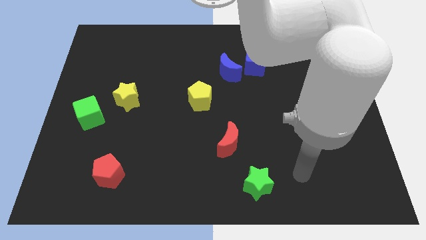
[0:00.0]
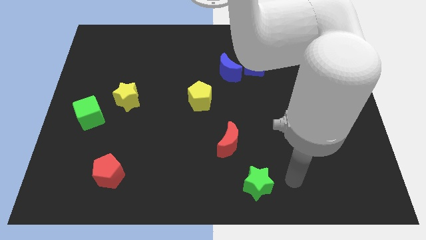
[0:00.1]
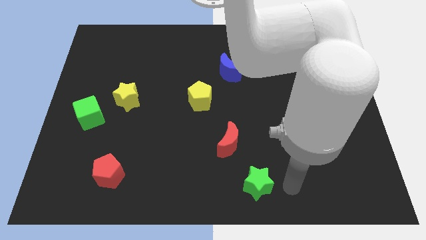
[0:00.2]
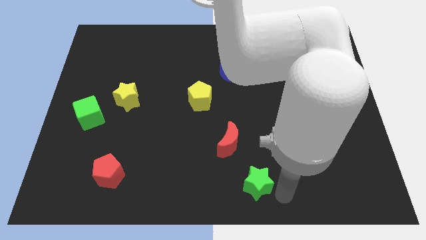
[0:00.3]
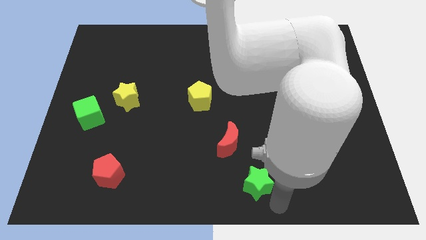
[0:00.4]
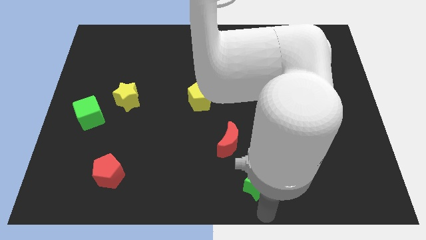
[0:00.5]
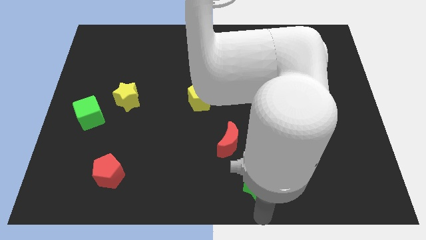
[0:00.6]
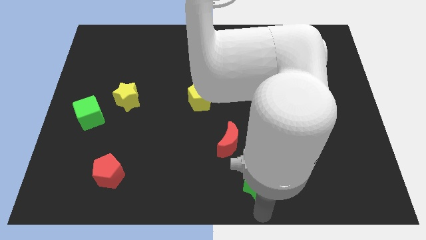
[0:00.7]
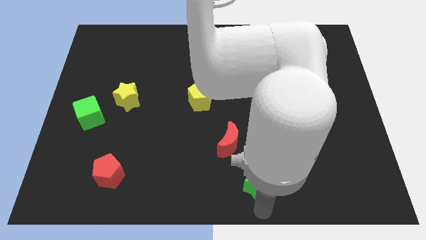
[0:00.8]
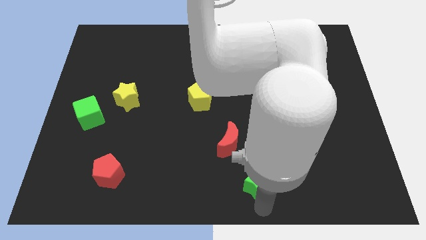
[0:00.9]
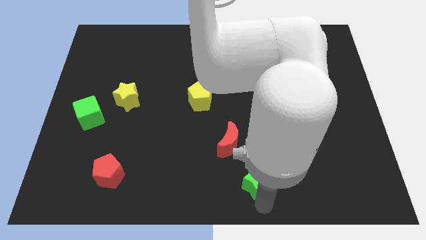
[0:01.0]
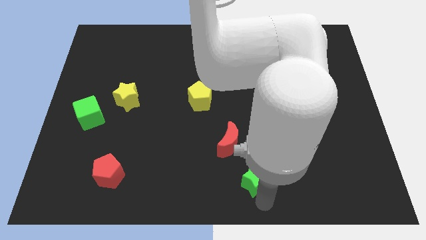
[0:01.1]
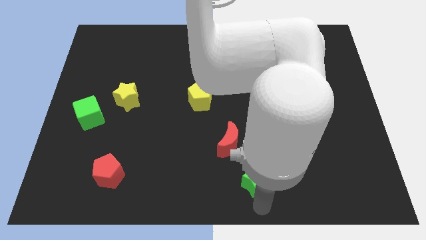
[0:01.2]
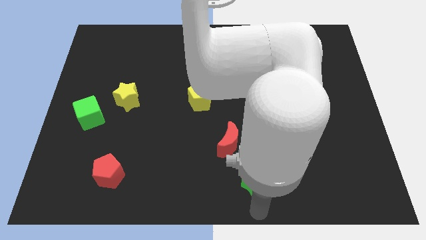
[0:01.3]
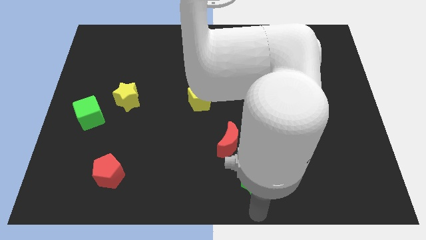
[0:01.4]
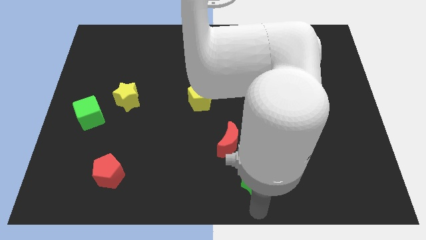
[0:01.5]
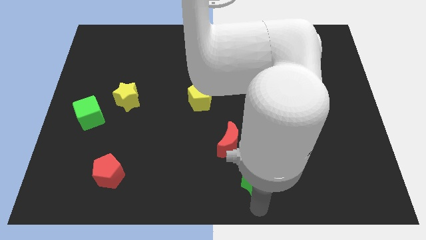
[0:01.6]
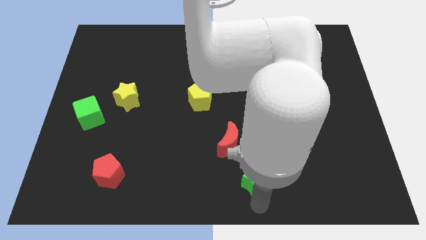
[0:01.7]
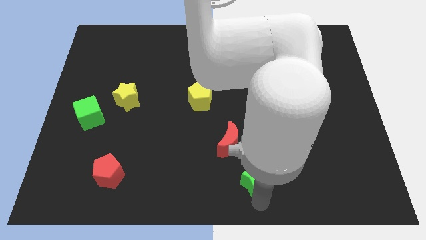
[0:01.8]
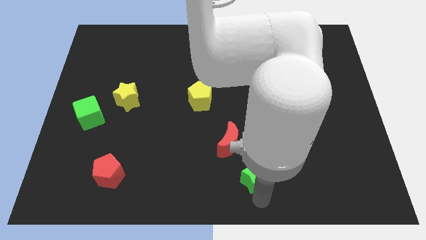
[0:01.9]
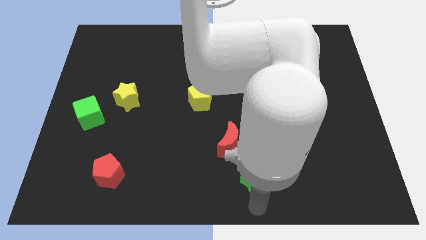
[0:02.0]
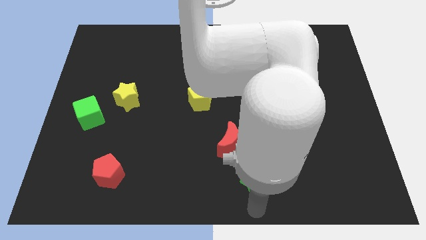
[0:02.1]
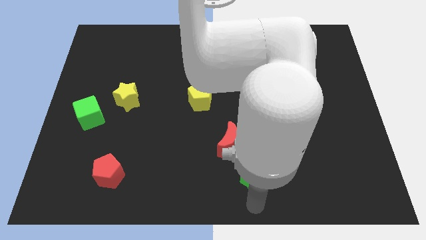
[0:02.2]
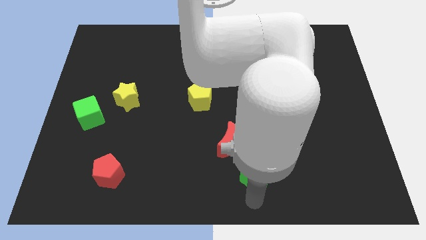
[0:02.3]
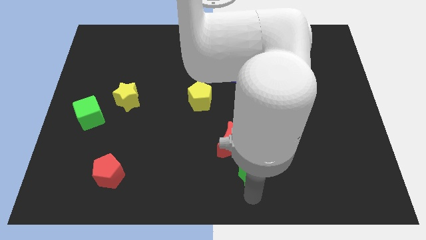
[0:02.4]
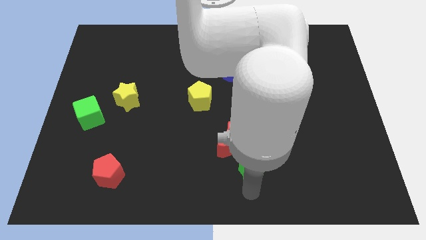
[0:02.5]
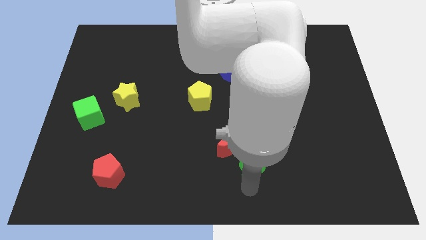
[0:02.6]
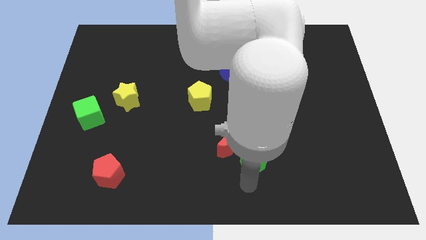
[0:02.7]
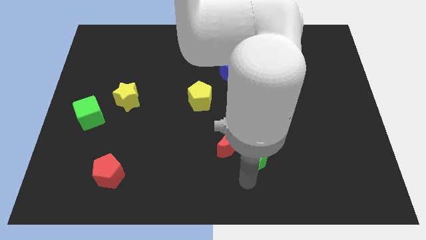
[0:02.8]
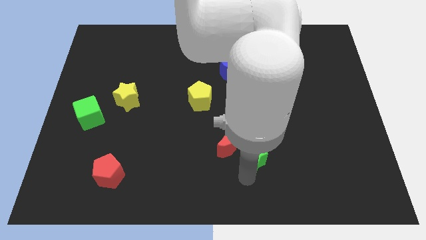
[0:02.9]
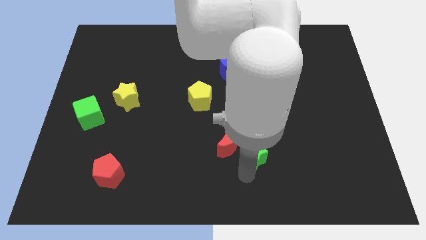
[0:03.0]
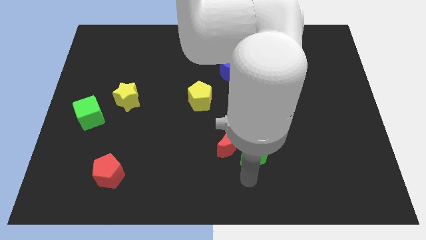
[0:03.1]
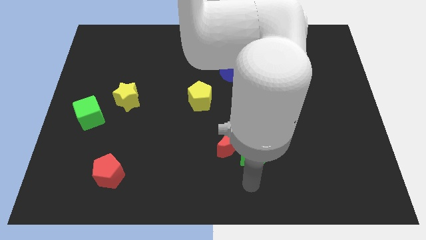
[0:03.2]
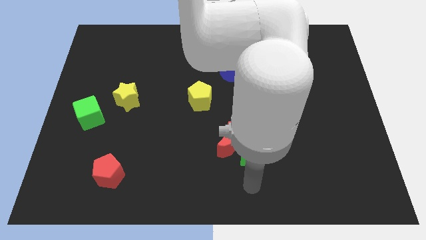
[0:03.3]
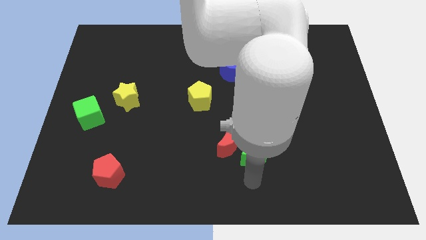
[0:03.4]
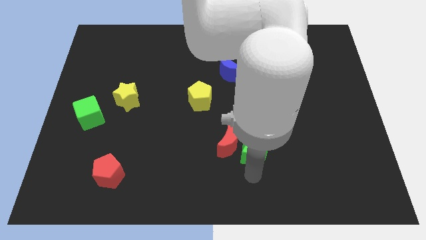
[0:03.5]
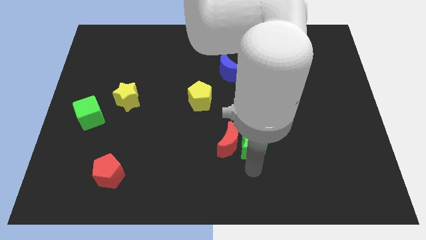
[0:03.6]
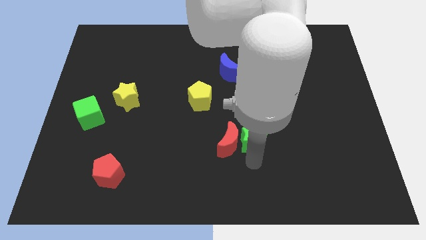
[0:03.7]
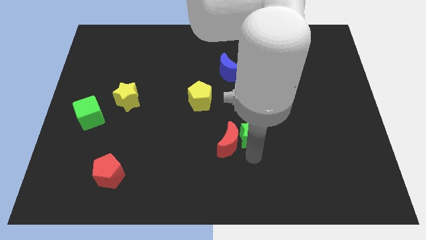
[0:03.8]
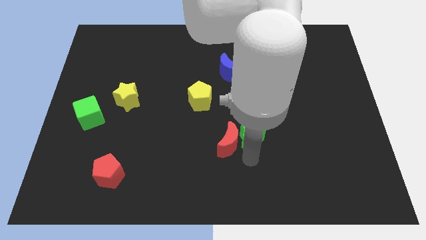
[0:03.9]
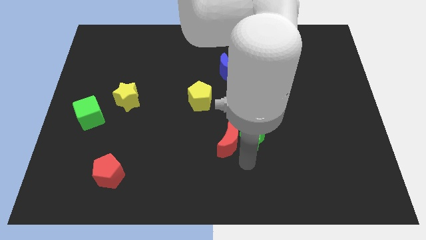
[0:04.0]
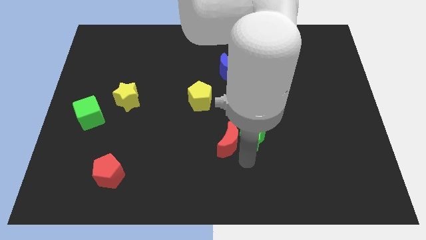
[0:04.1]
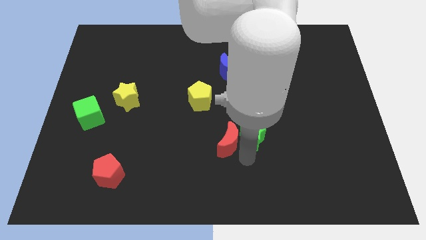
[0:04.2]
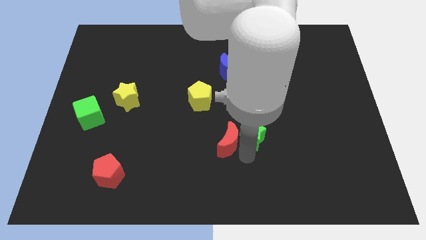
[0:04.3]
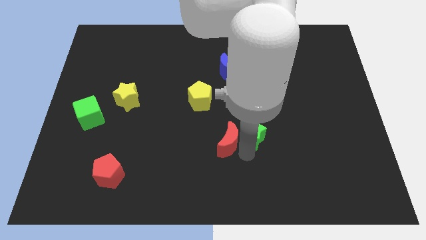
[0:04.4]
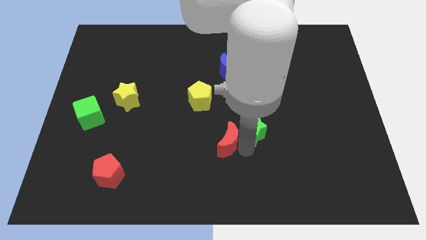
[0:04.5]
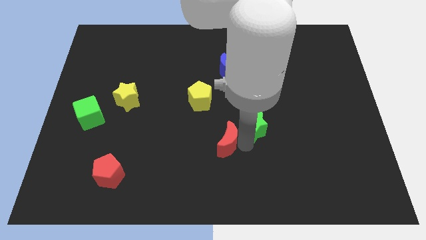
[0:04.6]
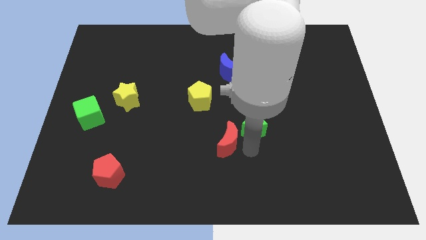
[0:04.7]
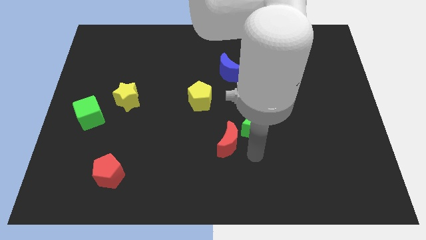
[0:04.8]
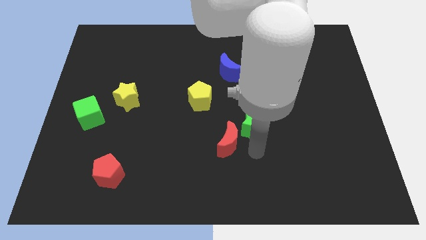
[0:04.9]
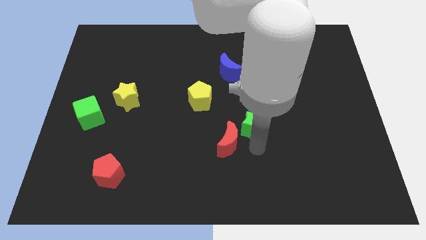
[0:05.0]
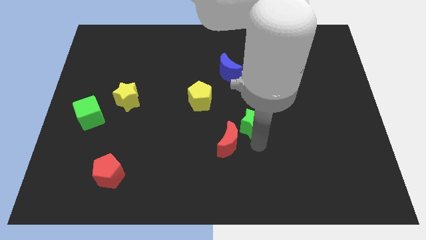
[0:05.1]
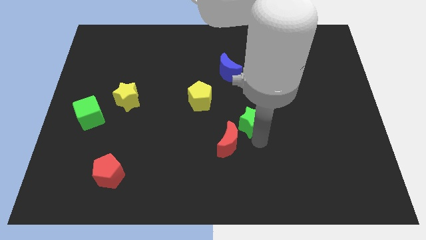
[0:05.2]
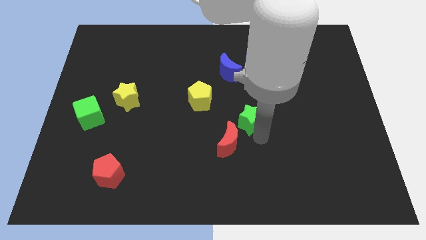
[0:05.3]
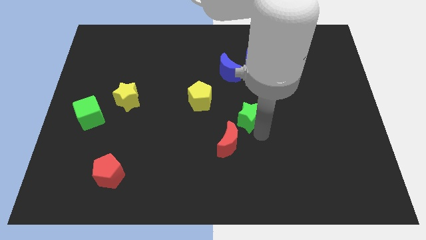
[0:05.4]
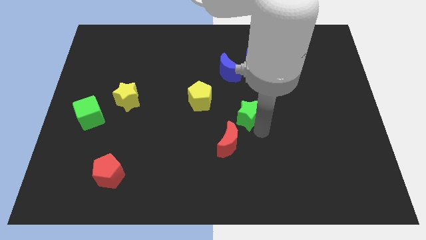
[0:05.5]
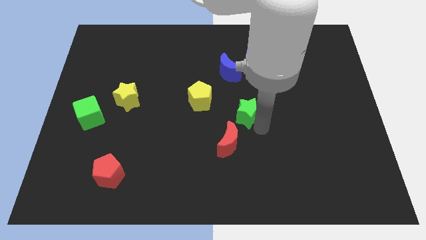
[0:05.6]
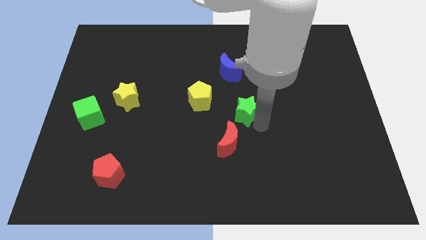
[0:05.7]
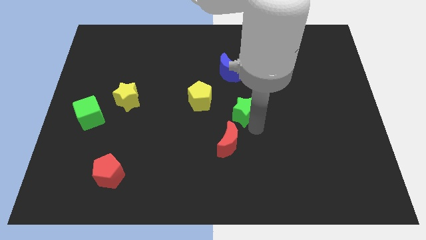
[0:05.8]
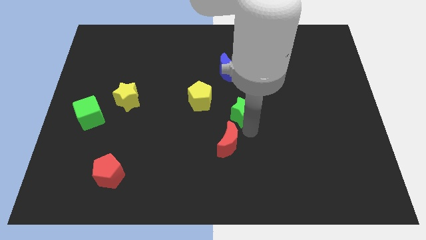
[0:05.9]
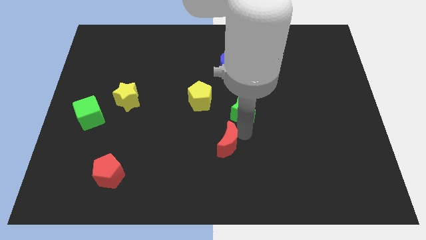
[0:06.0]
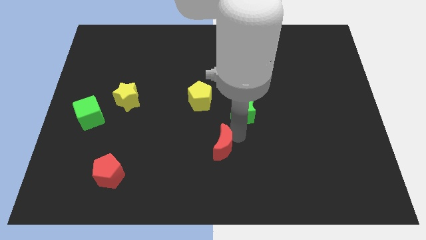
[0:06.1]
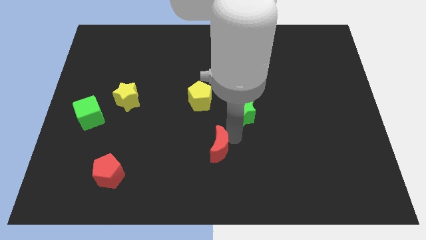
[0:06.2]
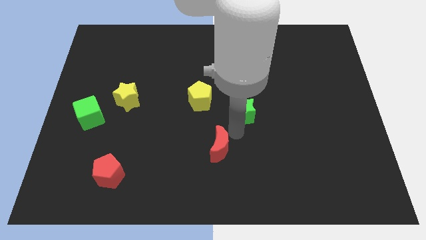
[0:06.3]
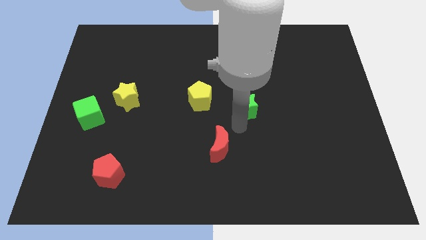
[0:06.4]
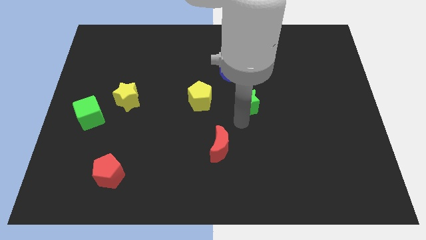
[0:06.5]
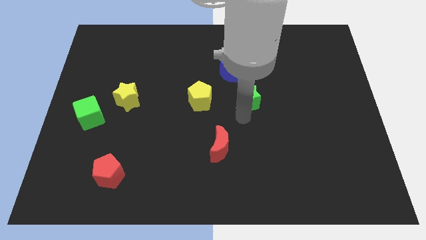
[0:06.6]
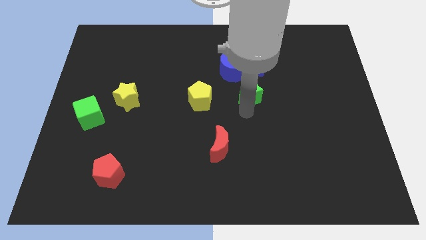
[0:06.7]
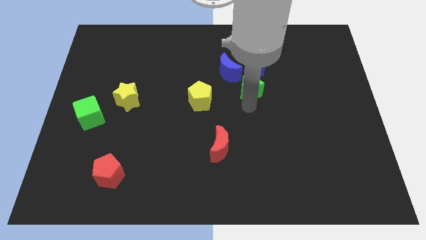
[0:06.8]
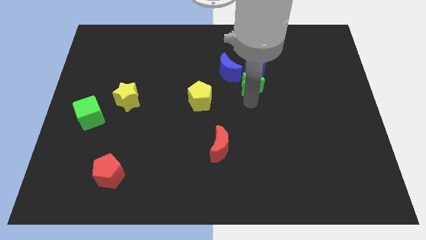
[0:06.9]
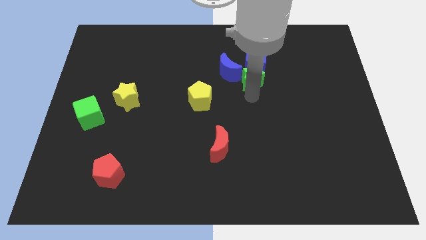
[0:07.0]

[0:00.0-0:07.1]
put the green star close to the blue cube

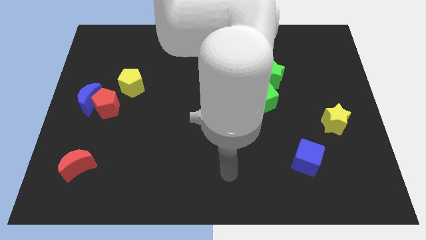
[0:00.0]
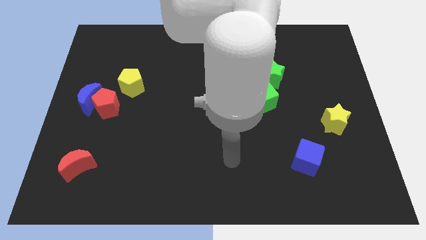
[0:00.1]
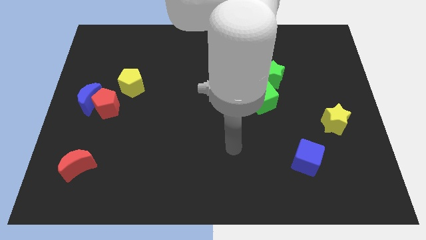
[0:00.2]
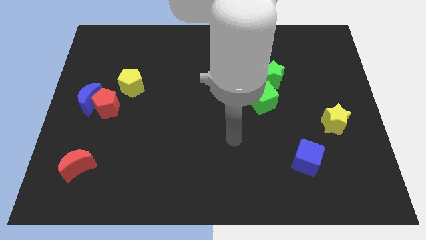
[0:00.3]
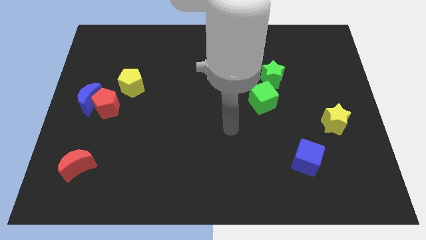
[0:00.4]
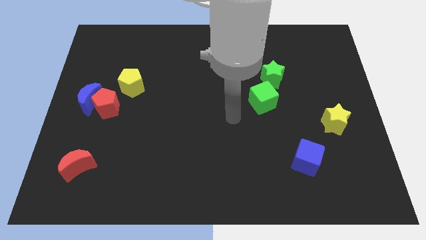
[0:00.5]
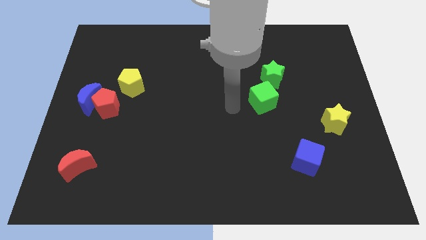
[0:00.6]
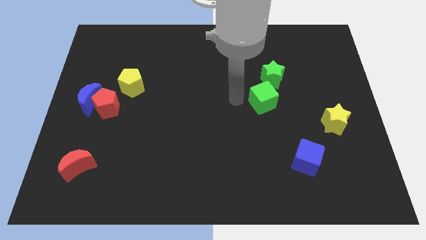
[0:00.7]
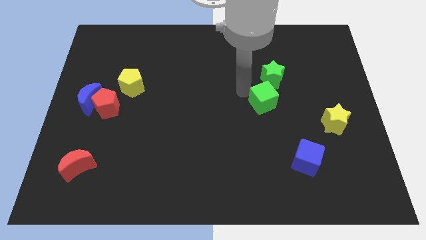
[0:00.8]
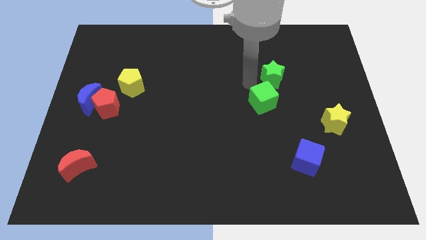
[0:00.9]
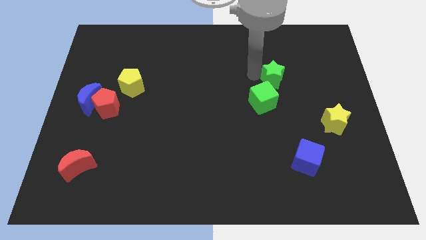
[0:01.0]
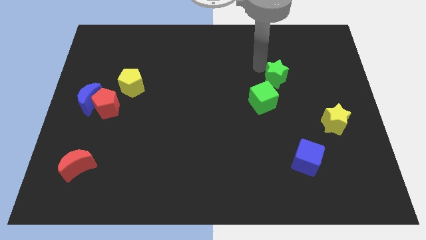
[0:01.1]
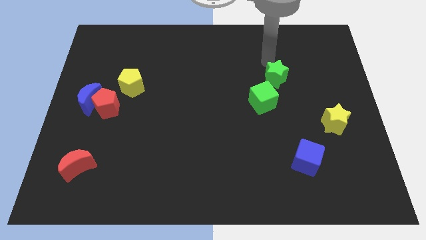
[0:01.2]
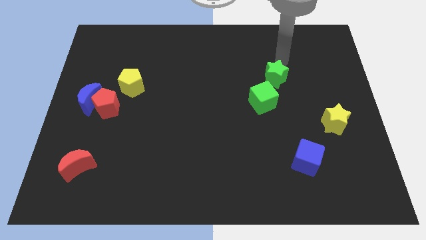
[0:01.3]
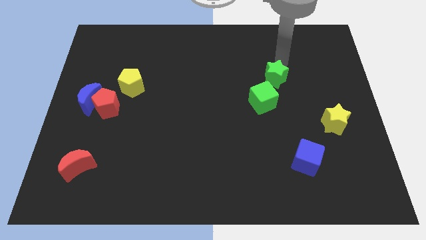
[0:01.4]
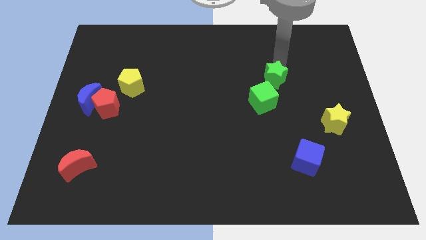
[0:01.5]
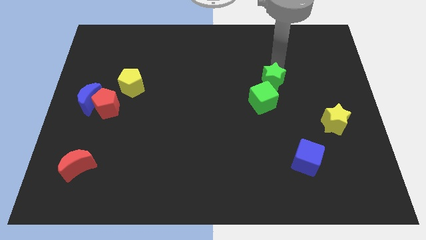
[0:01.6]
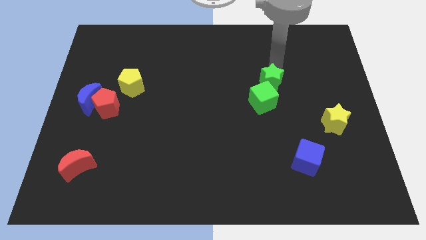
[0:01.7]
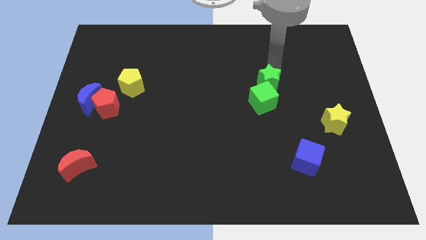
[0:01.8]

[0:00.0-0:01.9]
push the green star next to the green cube
